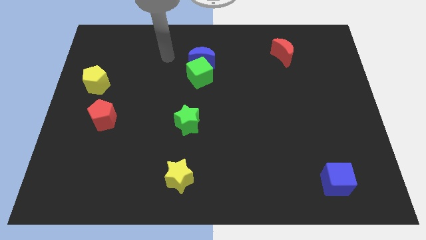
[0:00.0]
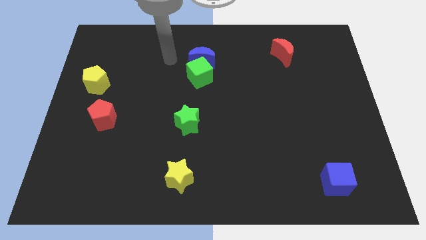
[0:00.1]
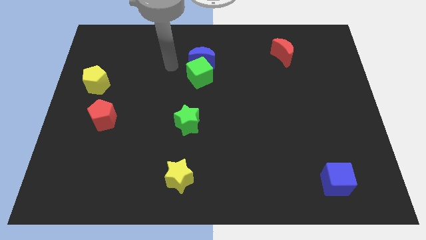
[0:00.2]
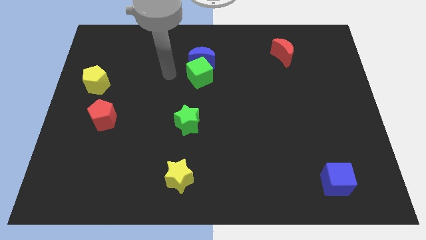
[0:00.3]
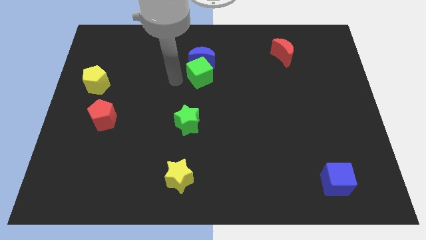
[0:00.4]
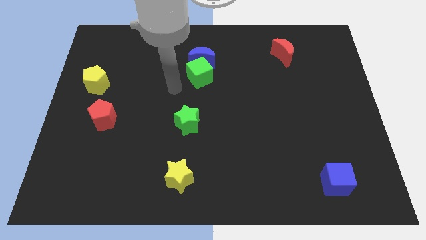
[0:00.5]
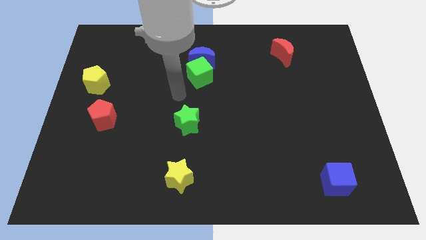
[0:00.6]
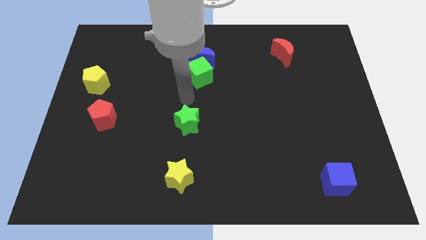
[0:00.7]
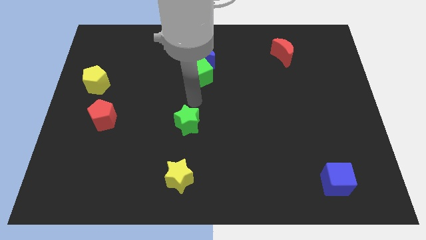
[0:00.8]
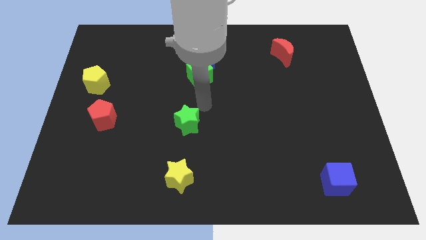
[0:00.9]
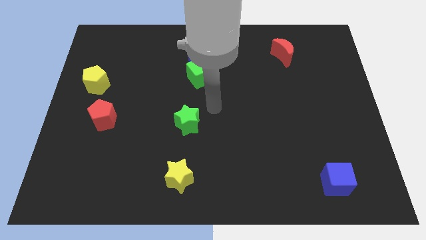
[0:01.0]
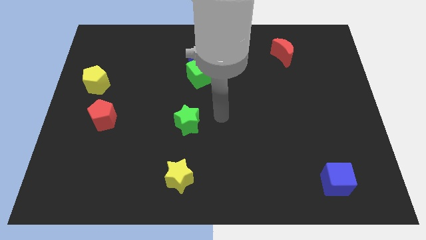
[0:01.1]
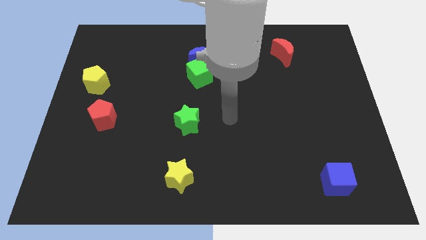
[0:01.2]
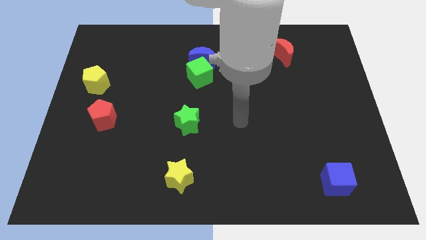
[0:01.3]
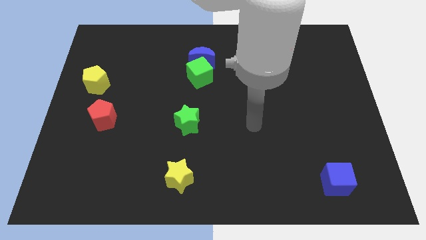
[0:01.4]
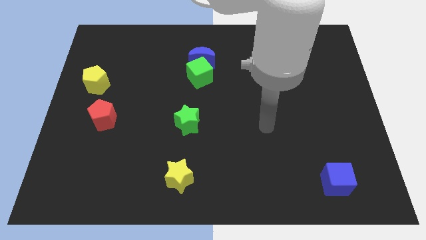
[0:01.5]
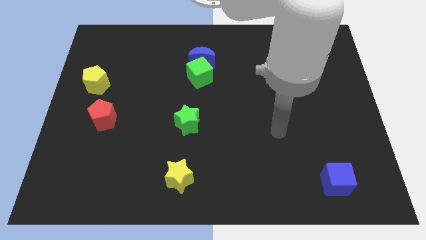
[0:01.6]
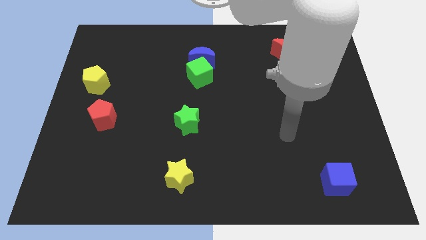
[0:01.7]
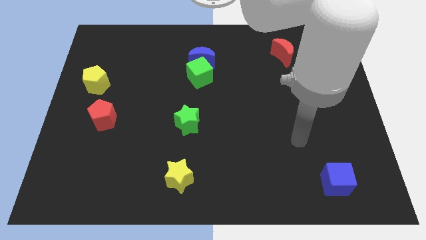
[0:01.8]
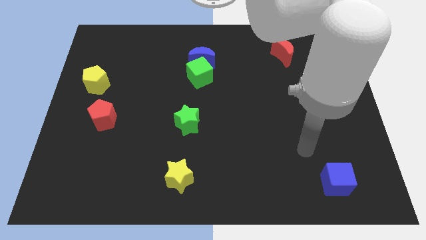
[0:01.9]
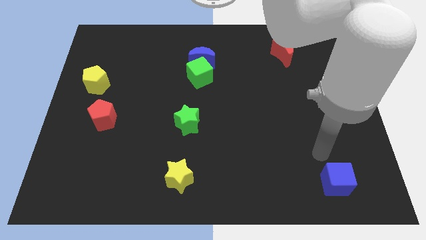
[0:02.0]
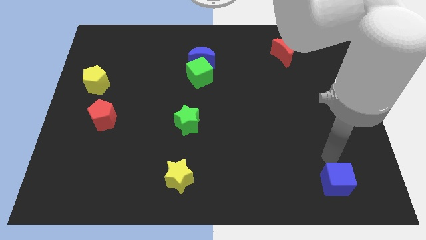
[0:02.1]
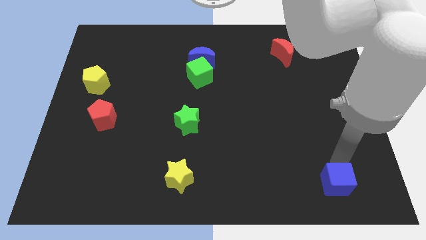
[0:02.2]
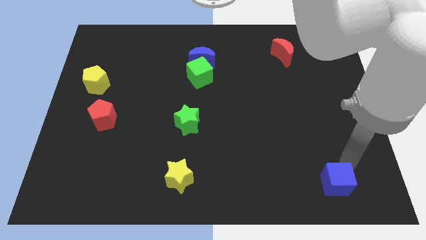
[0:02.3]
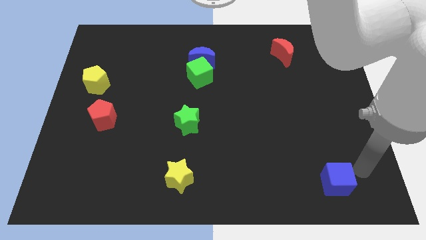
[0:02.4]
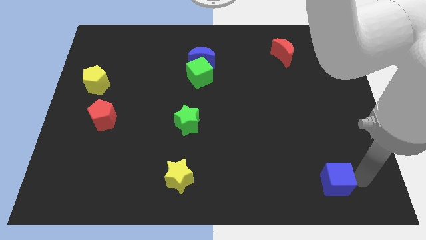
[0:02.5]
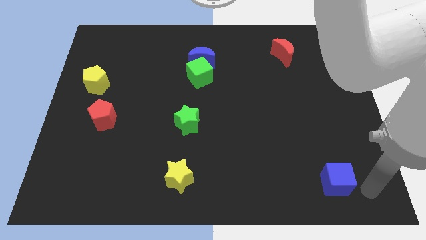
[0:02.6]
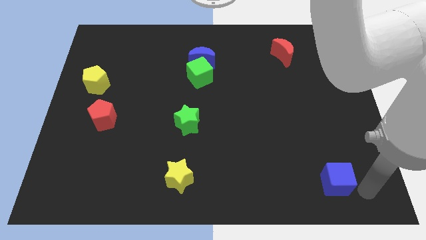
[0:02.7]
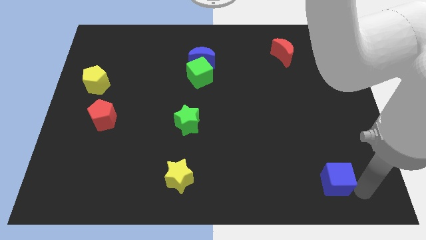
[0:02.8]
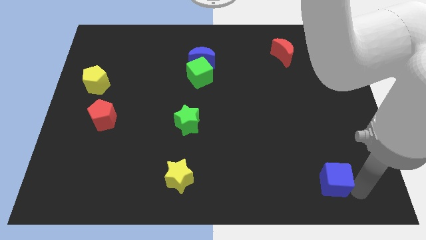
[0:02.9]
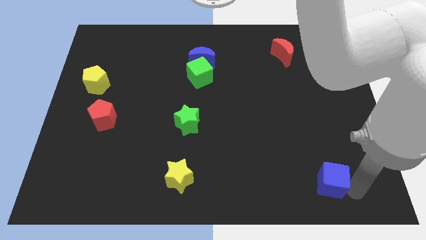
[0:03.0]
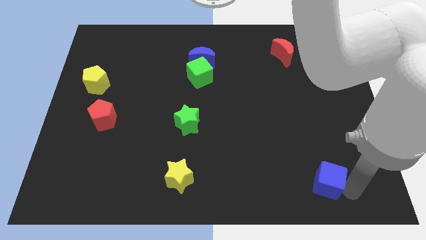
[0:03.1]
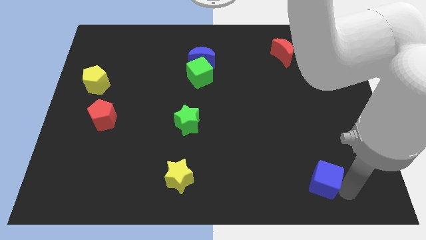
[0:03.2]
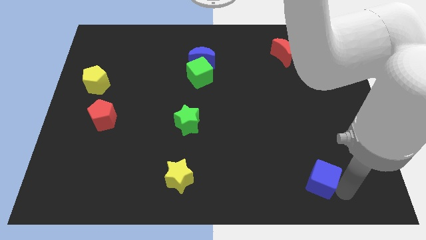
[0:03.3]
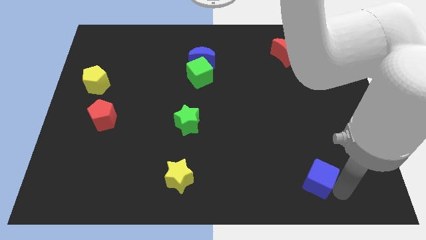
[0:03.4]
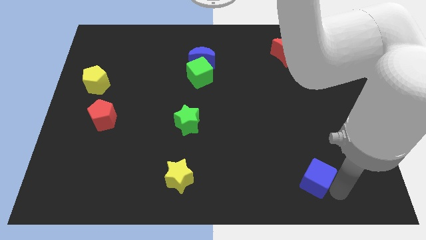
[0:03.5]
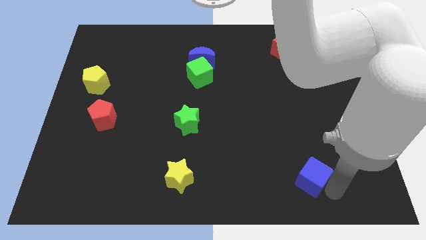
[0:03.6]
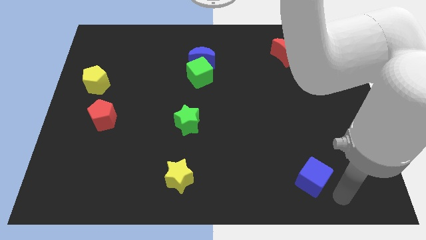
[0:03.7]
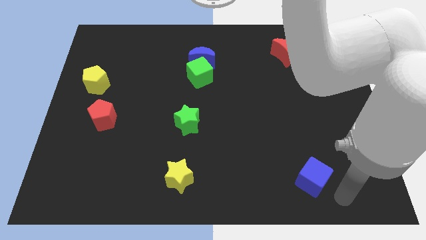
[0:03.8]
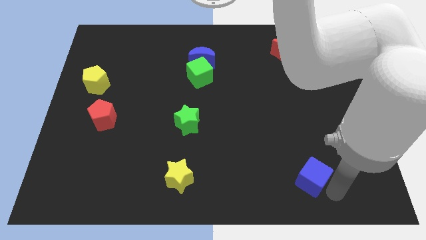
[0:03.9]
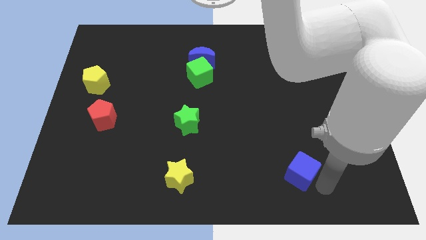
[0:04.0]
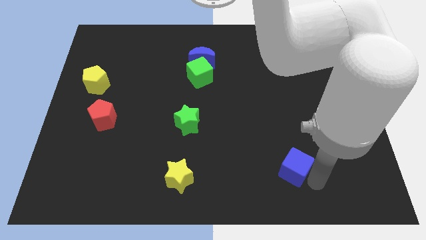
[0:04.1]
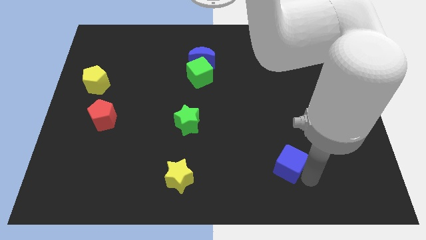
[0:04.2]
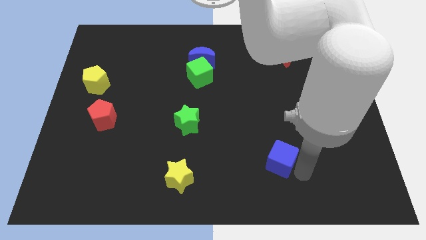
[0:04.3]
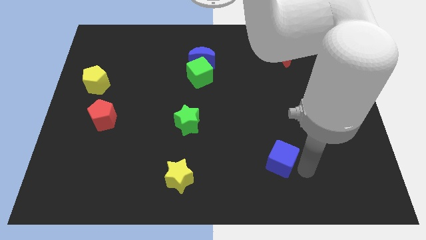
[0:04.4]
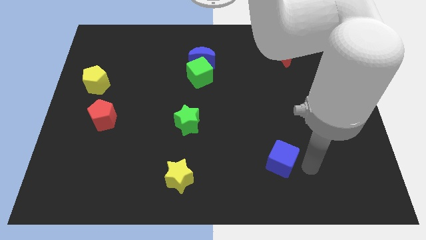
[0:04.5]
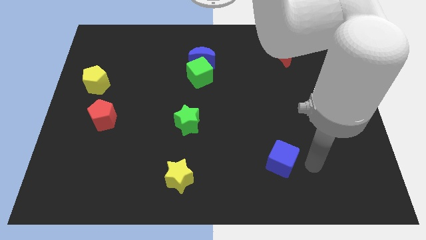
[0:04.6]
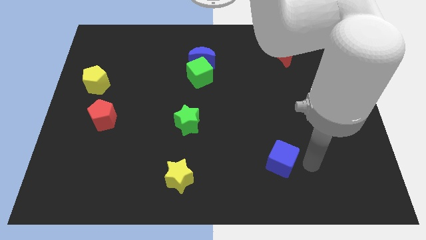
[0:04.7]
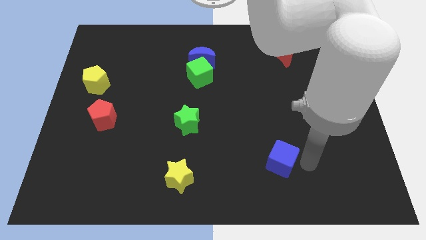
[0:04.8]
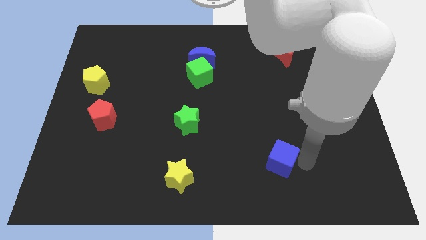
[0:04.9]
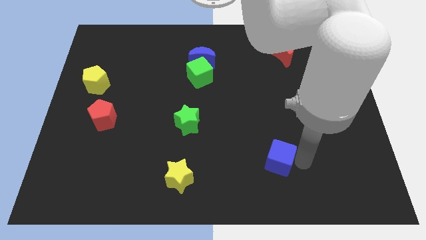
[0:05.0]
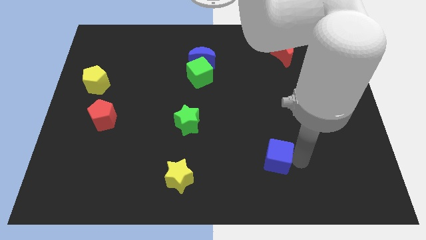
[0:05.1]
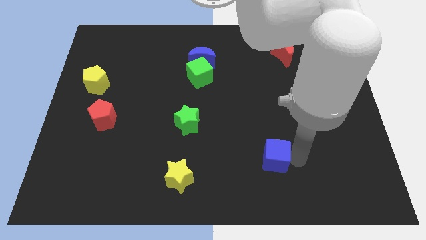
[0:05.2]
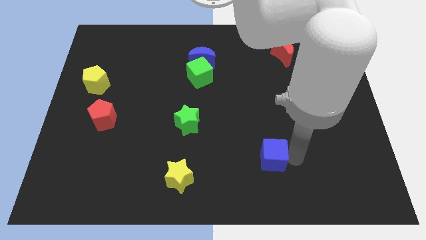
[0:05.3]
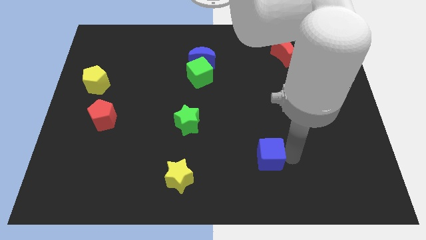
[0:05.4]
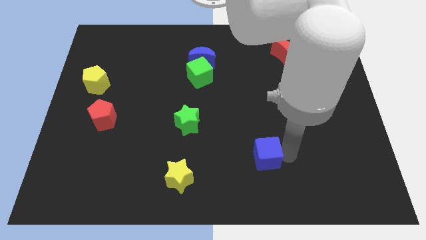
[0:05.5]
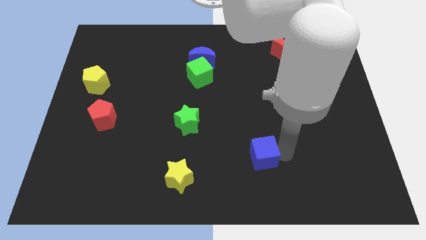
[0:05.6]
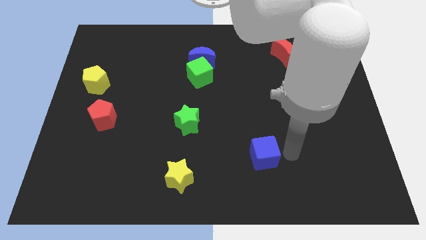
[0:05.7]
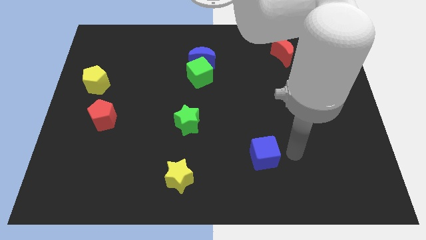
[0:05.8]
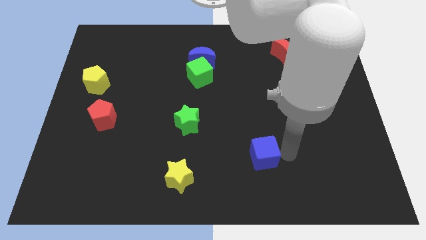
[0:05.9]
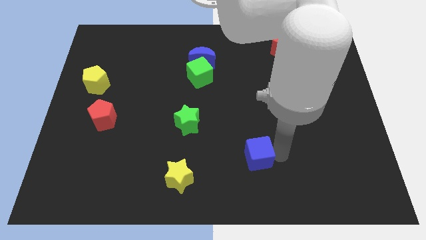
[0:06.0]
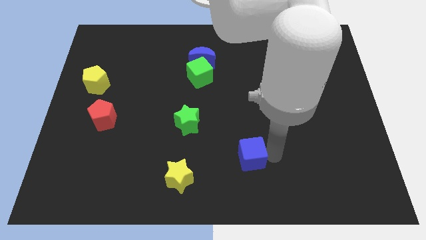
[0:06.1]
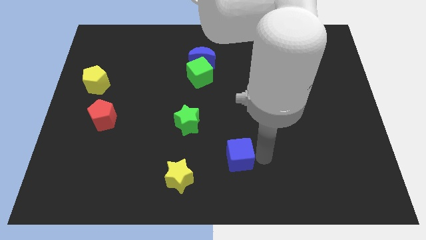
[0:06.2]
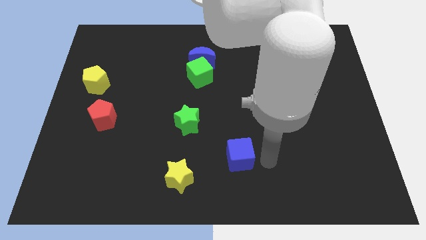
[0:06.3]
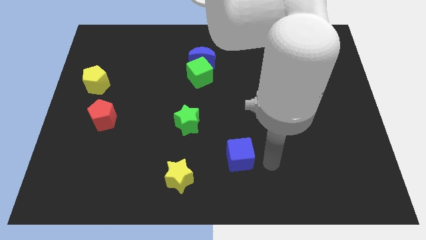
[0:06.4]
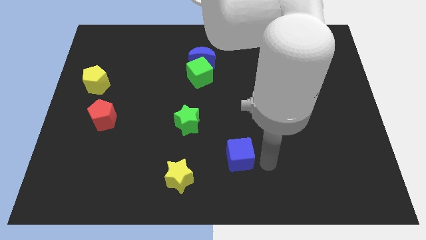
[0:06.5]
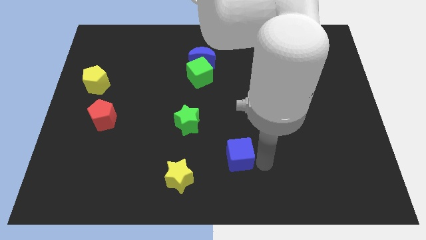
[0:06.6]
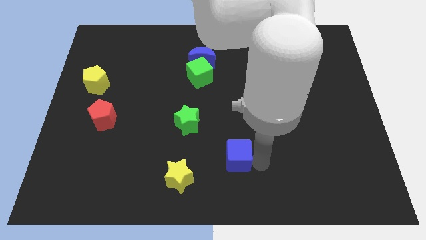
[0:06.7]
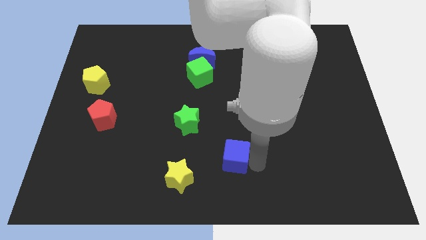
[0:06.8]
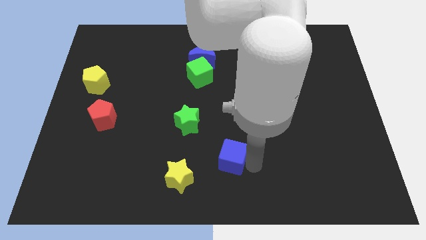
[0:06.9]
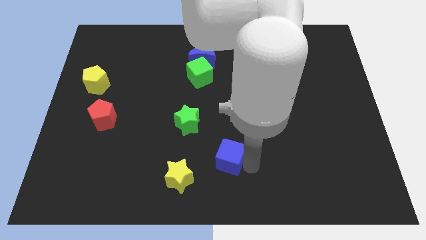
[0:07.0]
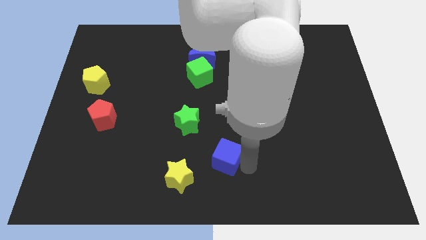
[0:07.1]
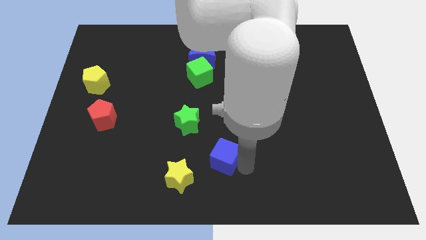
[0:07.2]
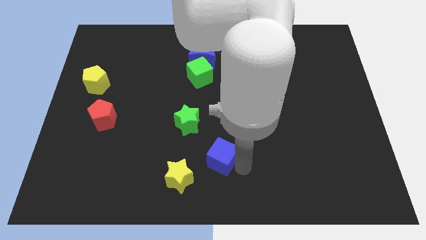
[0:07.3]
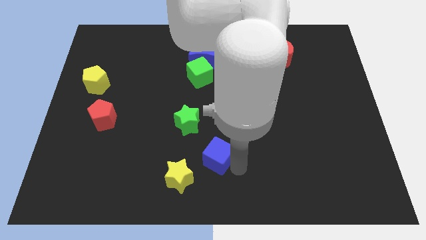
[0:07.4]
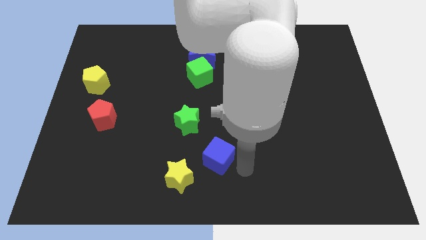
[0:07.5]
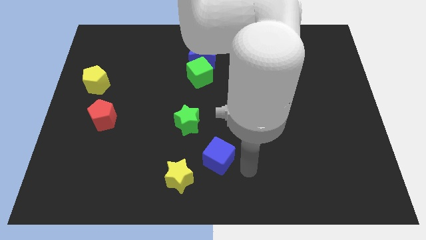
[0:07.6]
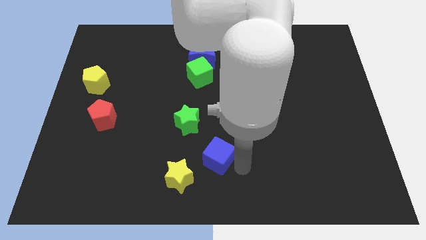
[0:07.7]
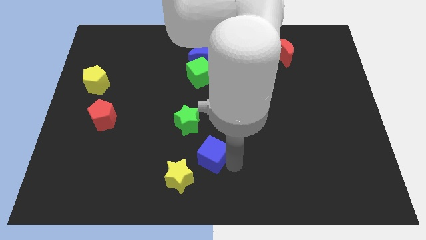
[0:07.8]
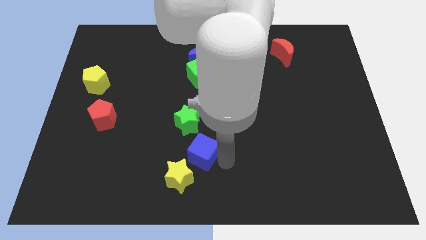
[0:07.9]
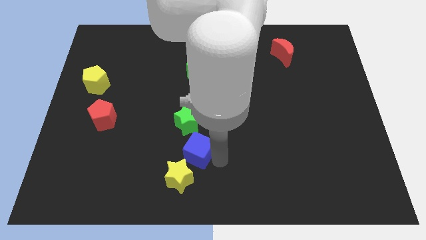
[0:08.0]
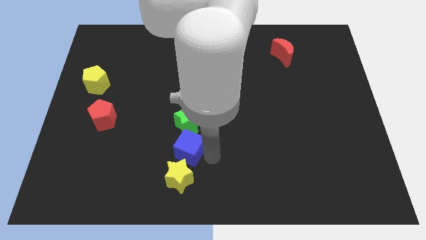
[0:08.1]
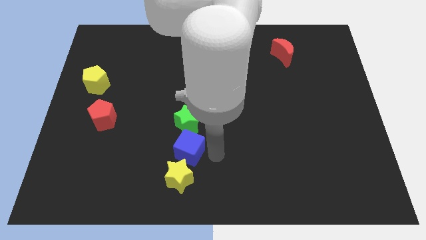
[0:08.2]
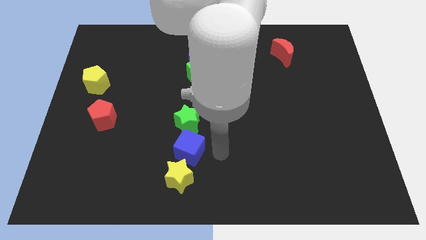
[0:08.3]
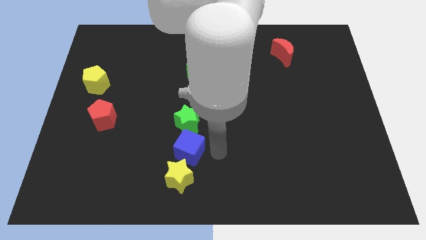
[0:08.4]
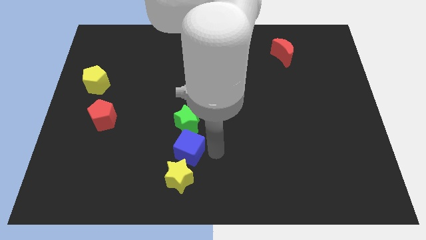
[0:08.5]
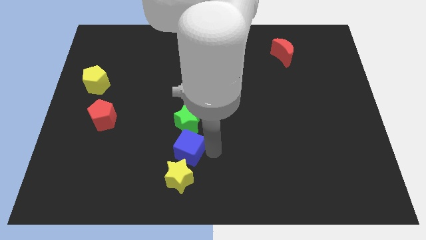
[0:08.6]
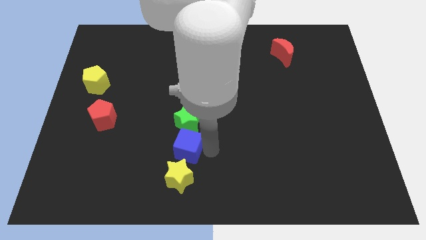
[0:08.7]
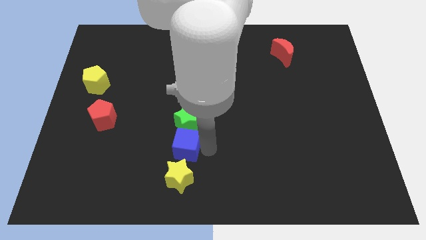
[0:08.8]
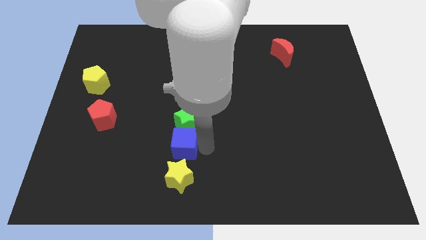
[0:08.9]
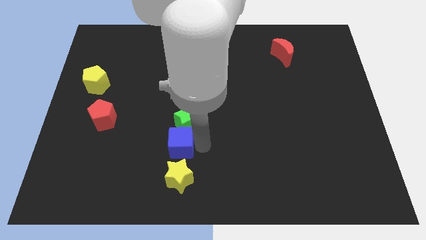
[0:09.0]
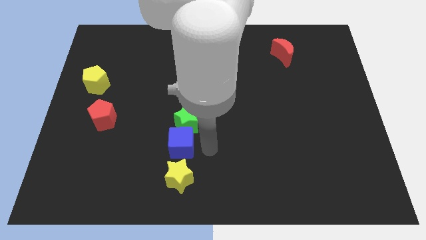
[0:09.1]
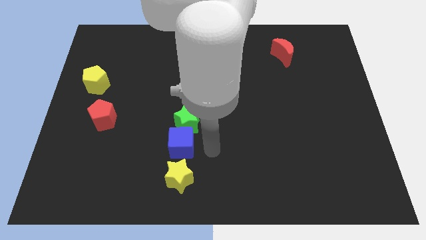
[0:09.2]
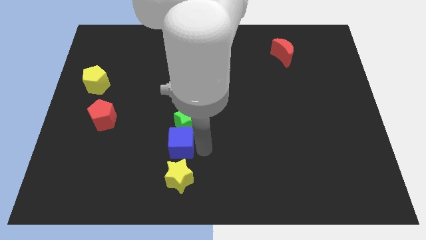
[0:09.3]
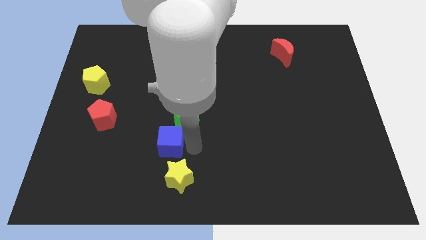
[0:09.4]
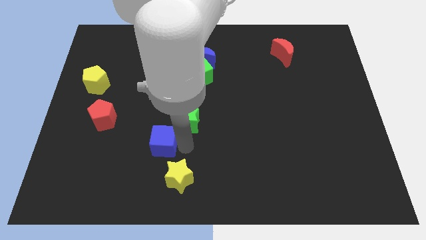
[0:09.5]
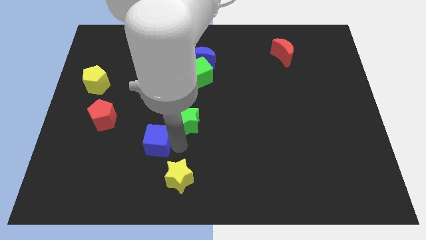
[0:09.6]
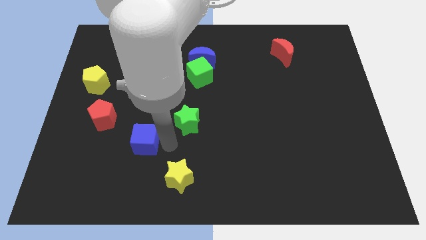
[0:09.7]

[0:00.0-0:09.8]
move the blue cube diagonally down and to the right of the red pentagon
